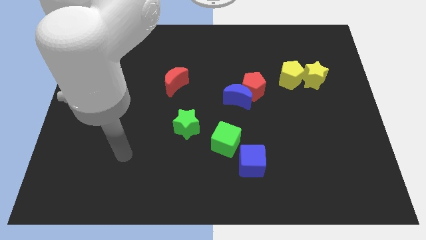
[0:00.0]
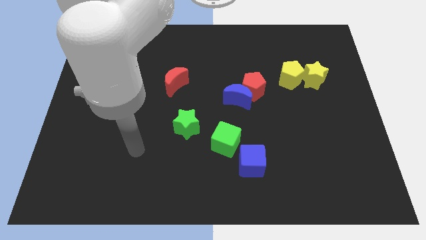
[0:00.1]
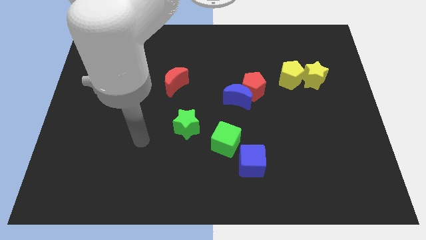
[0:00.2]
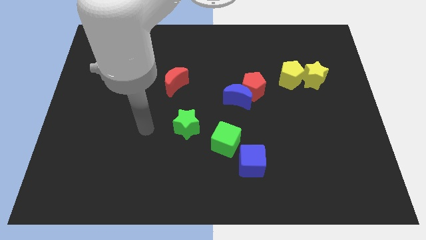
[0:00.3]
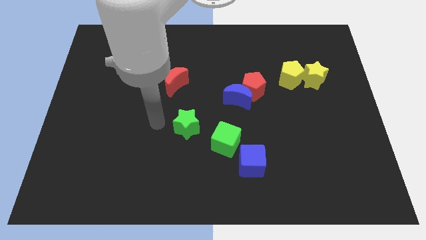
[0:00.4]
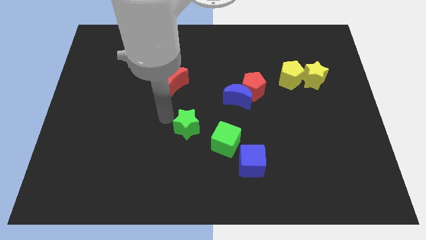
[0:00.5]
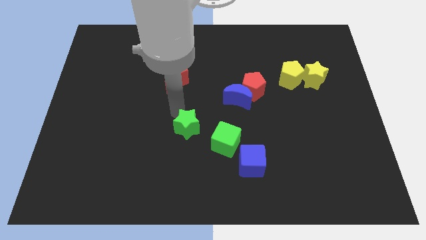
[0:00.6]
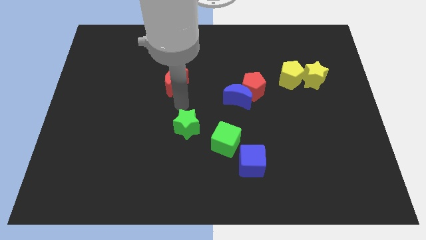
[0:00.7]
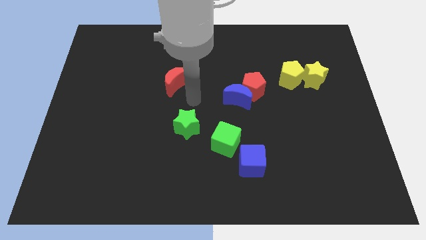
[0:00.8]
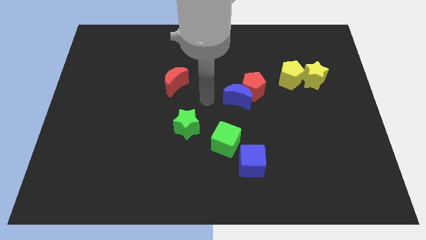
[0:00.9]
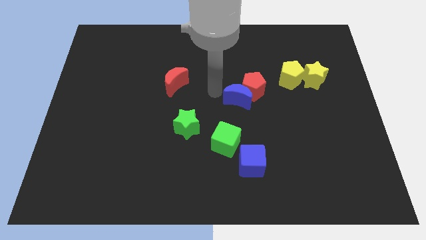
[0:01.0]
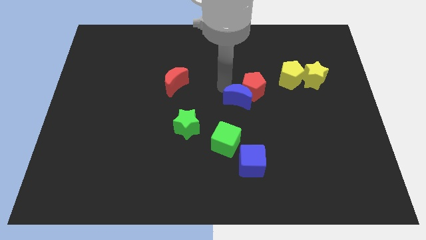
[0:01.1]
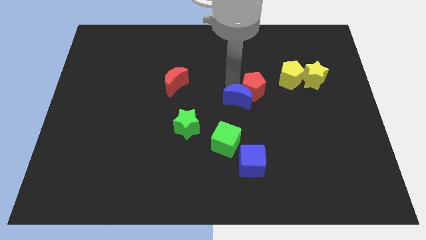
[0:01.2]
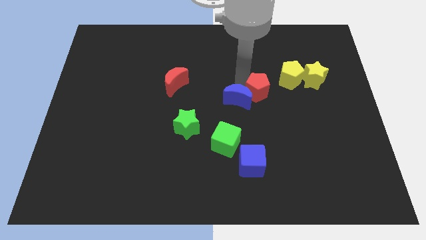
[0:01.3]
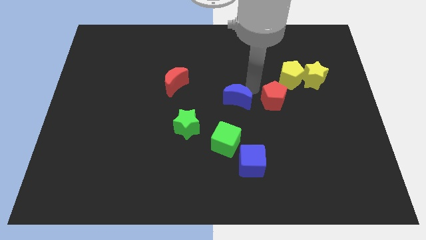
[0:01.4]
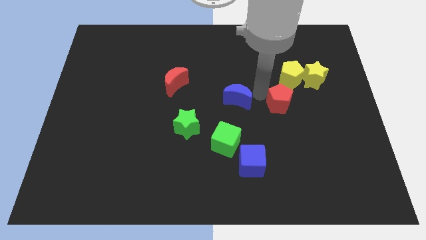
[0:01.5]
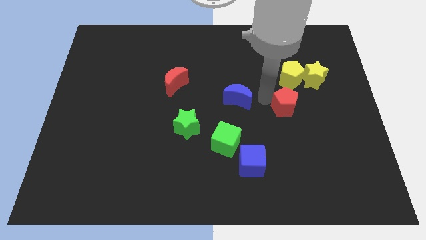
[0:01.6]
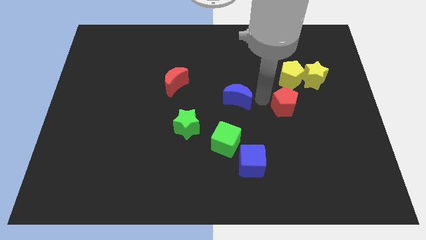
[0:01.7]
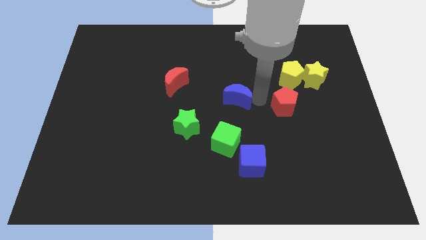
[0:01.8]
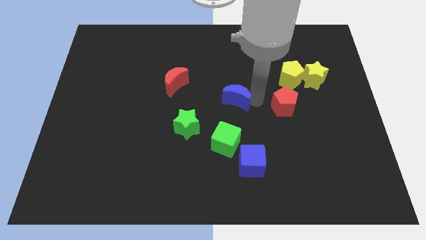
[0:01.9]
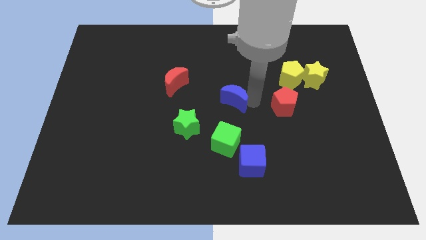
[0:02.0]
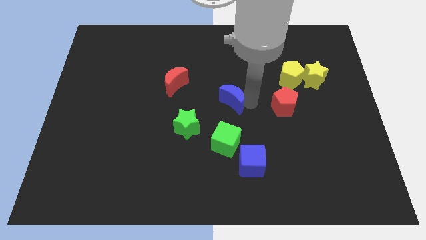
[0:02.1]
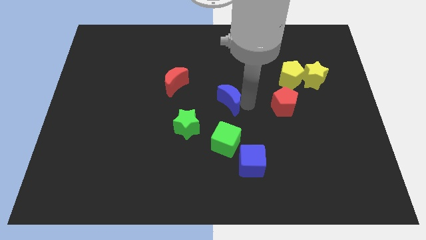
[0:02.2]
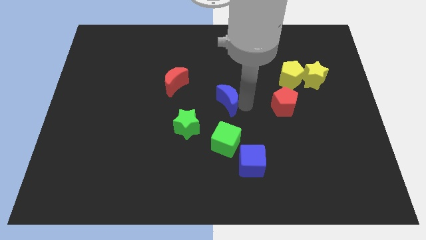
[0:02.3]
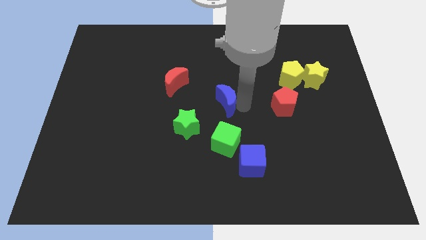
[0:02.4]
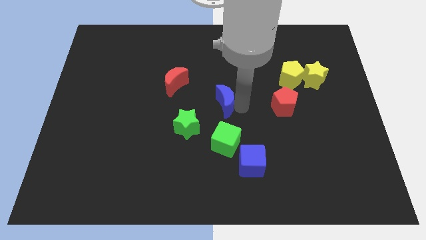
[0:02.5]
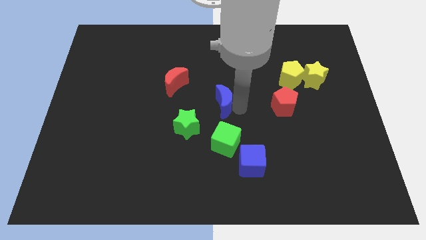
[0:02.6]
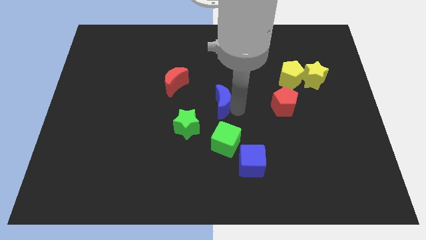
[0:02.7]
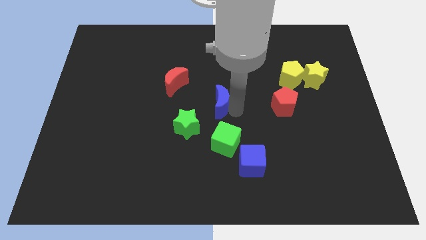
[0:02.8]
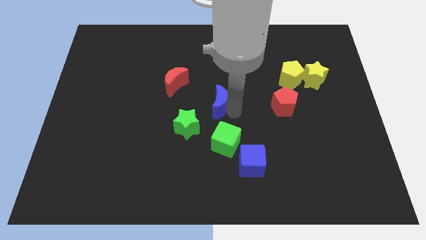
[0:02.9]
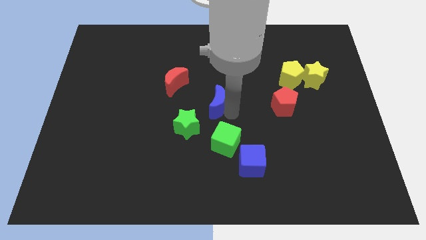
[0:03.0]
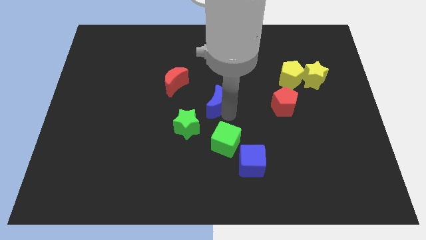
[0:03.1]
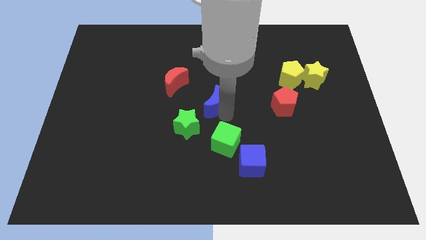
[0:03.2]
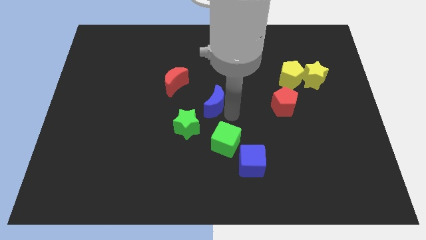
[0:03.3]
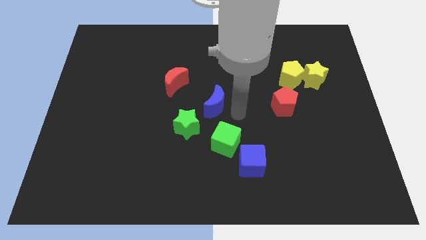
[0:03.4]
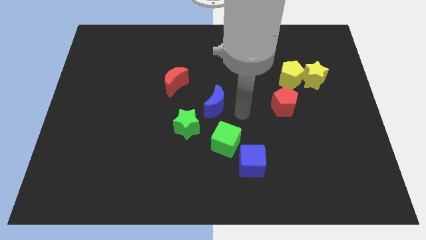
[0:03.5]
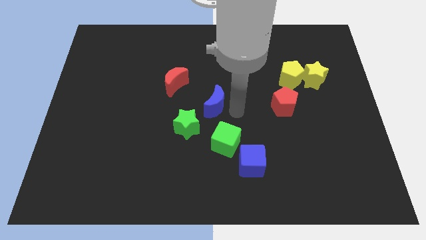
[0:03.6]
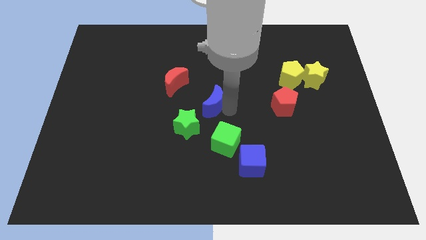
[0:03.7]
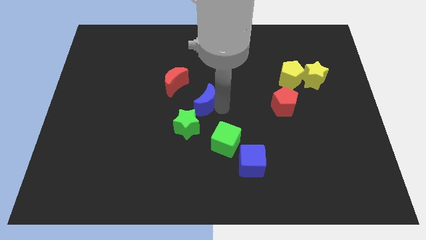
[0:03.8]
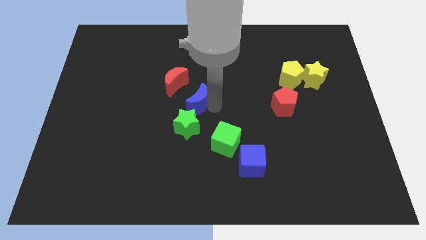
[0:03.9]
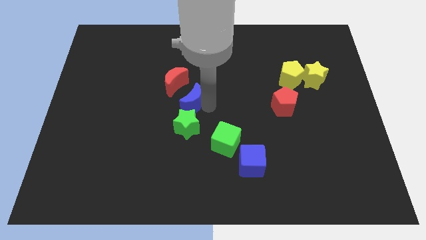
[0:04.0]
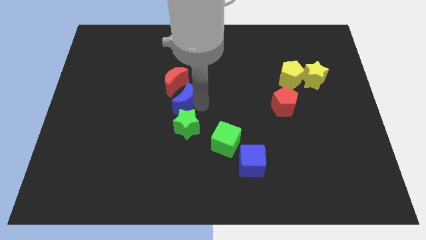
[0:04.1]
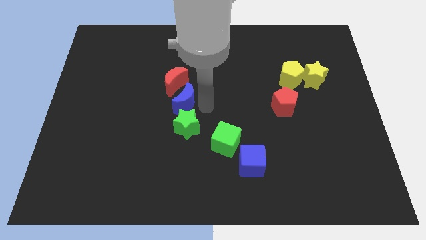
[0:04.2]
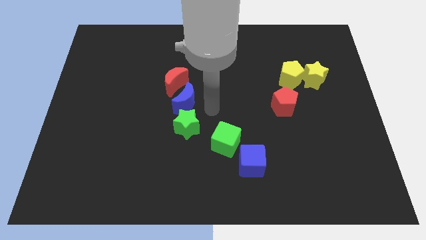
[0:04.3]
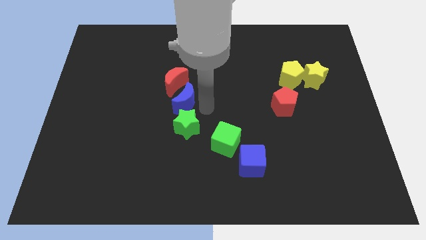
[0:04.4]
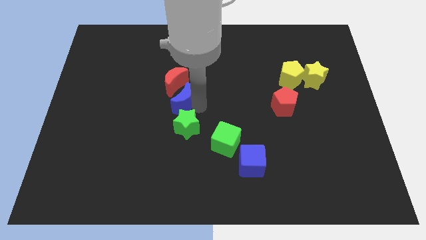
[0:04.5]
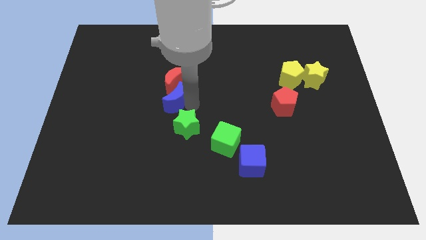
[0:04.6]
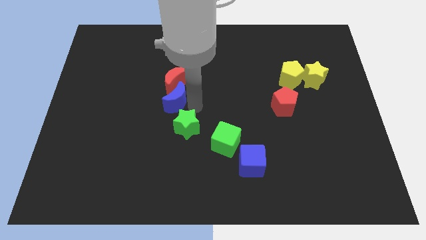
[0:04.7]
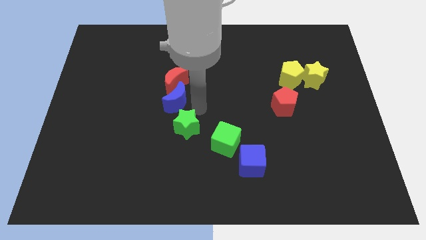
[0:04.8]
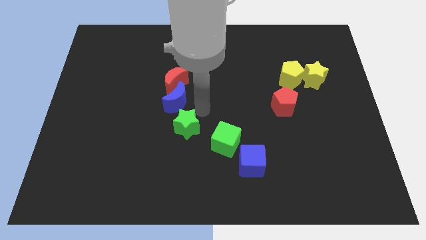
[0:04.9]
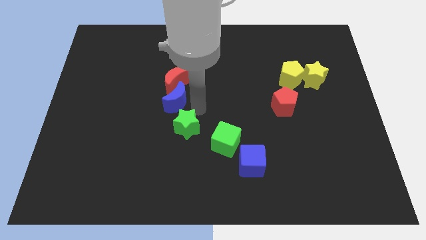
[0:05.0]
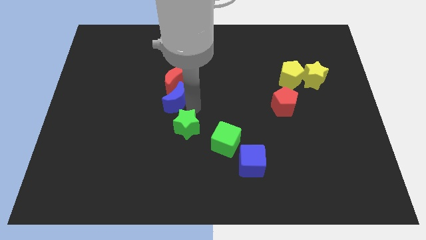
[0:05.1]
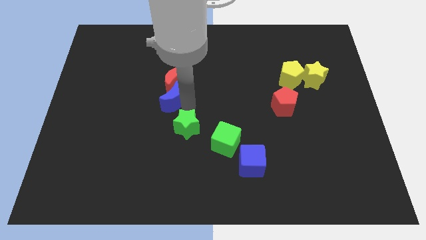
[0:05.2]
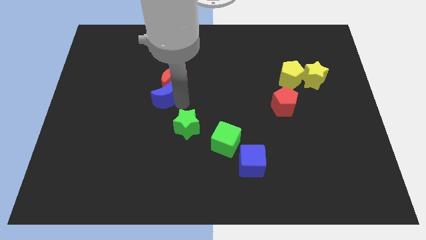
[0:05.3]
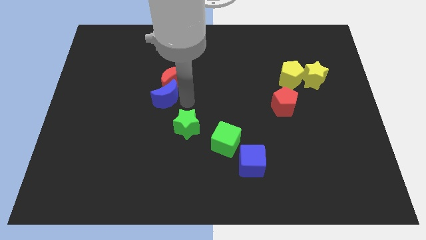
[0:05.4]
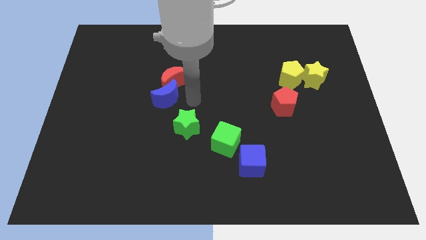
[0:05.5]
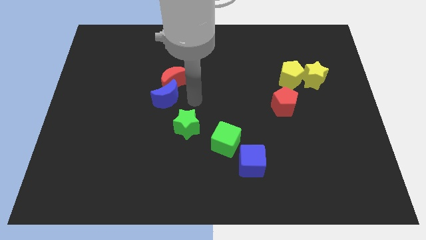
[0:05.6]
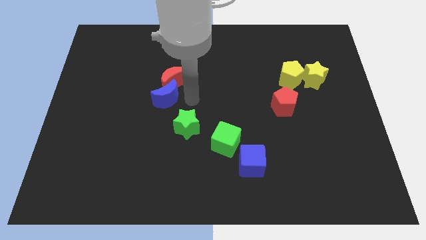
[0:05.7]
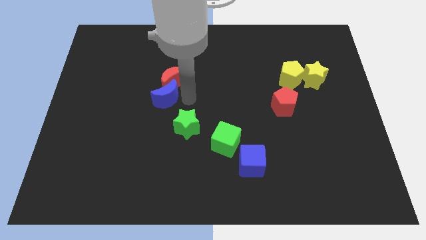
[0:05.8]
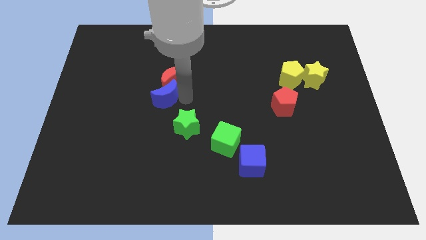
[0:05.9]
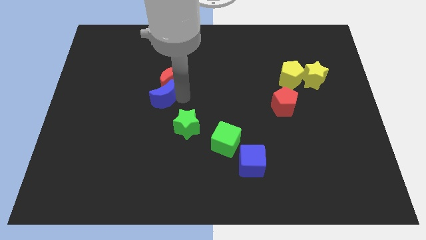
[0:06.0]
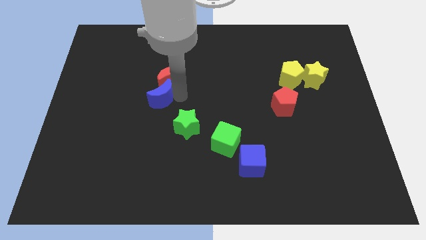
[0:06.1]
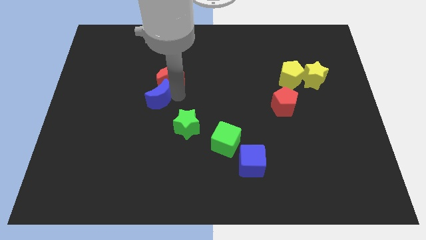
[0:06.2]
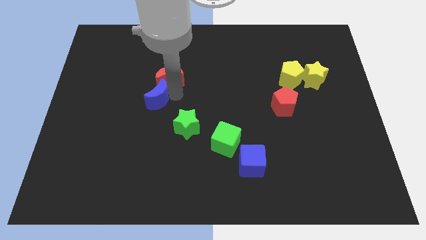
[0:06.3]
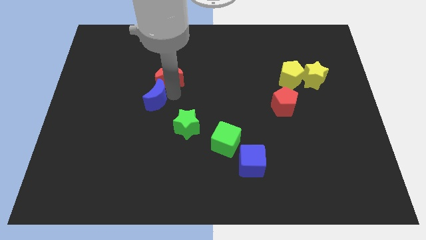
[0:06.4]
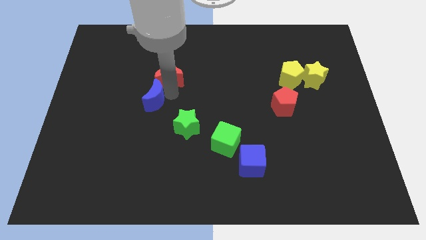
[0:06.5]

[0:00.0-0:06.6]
push the blue moon to the left

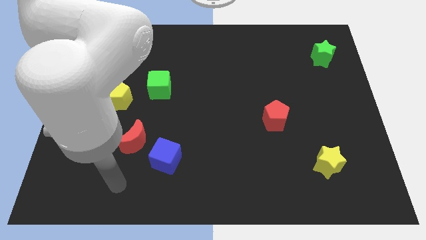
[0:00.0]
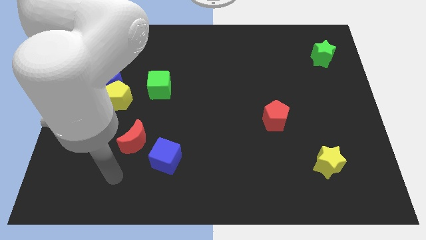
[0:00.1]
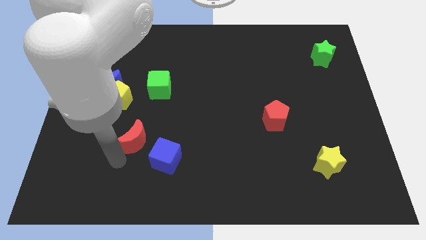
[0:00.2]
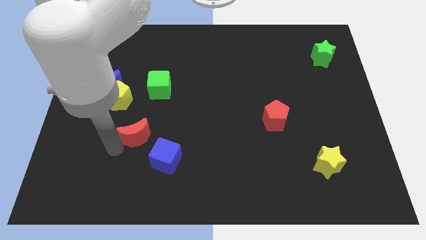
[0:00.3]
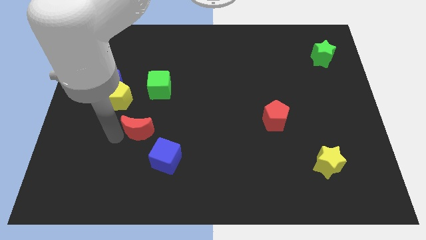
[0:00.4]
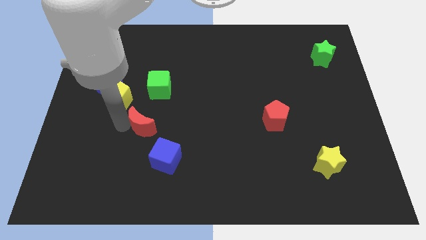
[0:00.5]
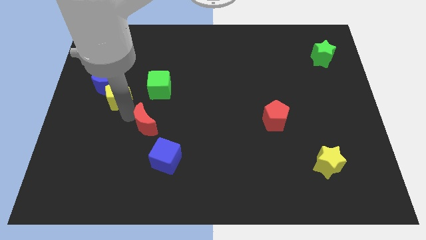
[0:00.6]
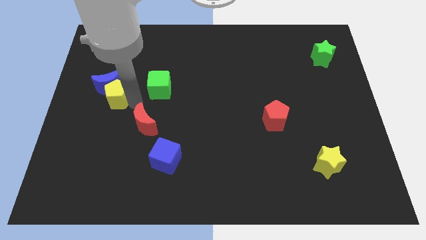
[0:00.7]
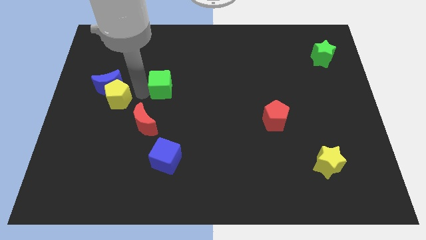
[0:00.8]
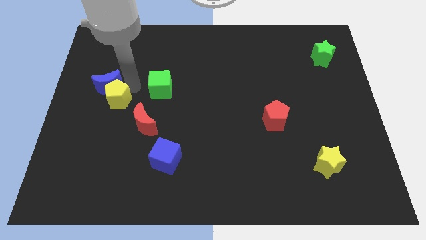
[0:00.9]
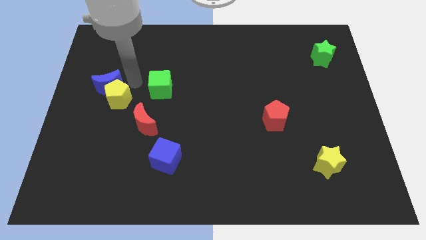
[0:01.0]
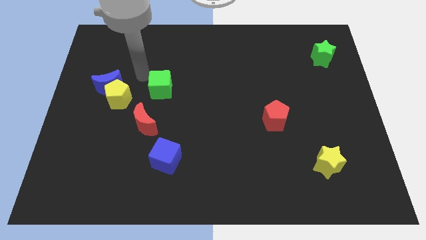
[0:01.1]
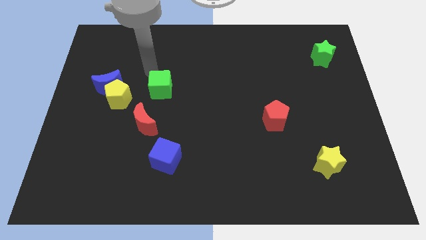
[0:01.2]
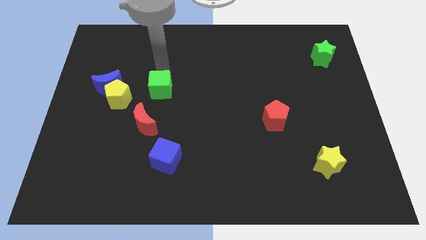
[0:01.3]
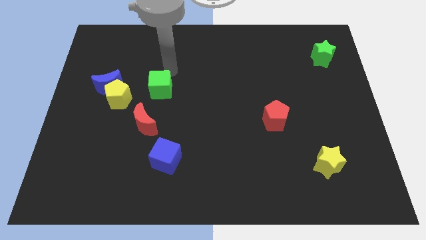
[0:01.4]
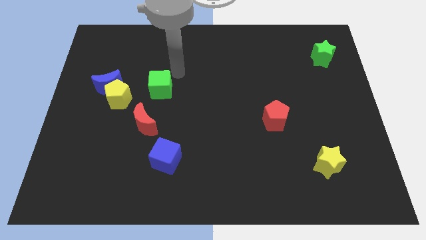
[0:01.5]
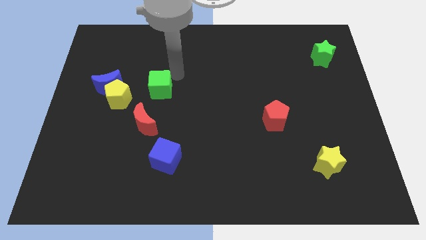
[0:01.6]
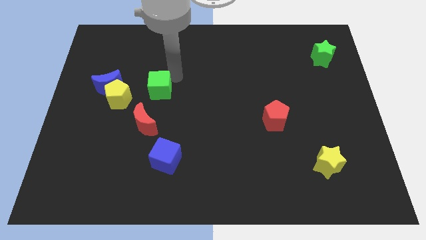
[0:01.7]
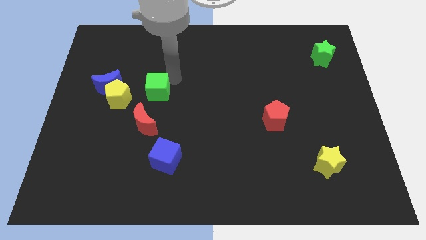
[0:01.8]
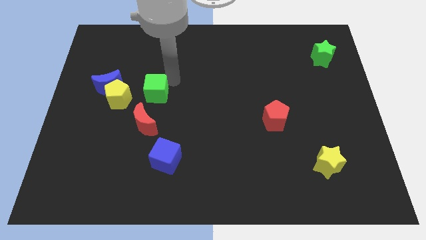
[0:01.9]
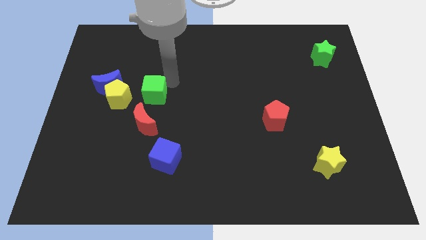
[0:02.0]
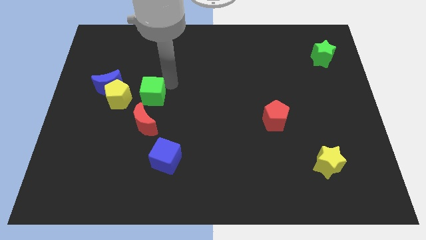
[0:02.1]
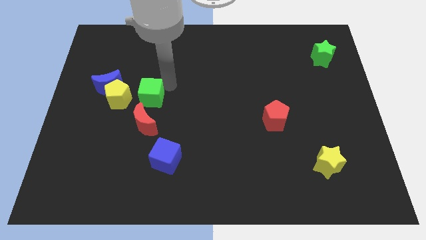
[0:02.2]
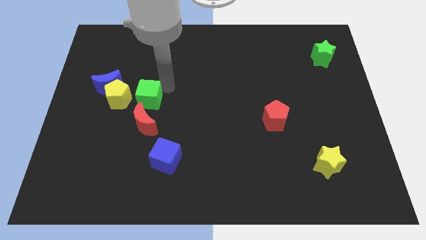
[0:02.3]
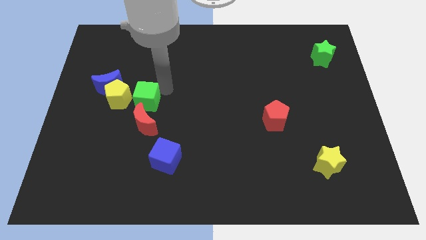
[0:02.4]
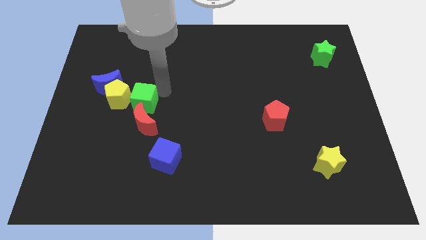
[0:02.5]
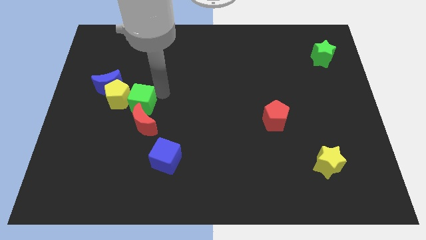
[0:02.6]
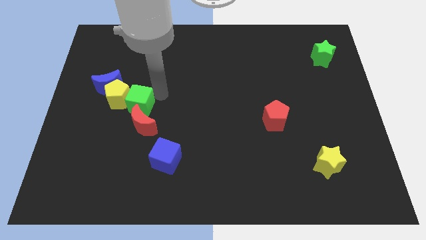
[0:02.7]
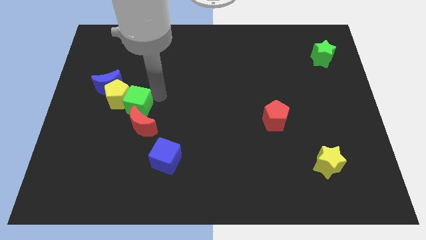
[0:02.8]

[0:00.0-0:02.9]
push the green cube somewhat down and left diagonally
